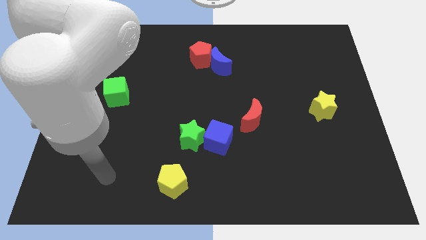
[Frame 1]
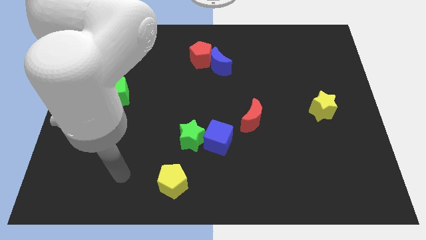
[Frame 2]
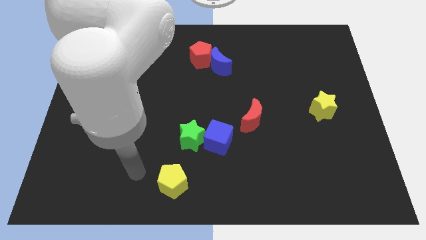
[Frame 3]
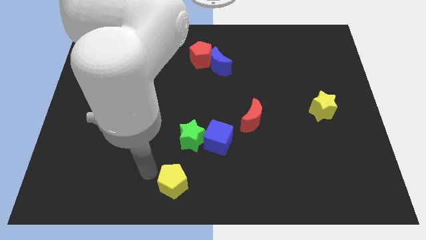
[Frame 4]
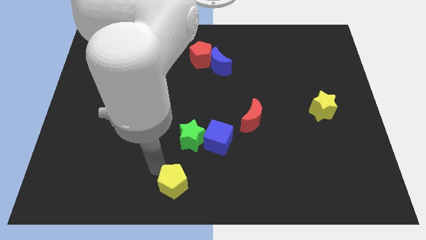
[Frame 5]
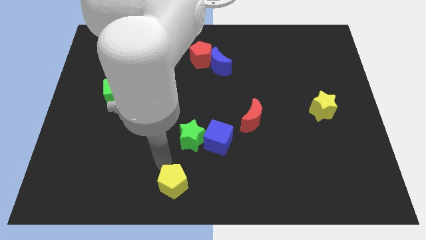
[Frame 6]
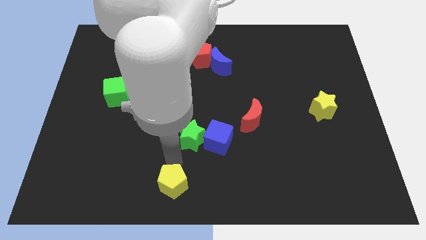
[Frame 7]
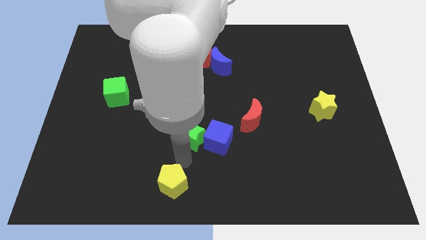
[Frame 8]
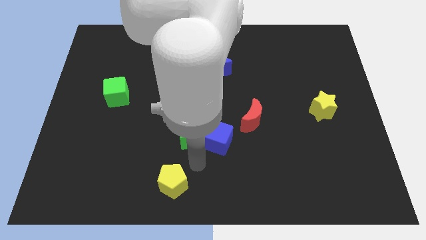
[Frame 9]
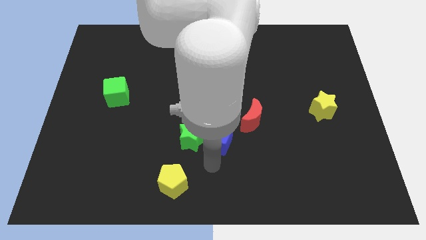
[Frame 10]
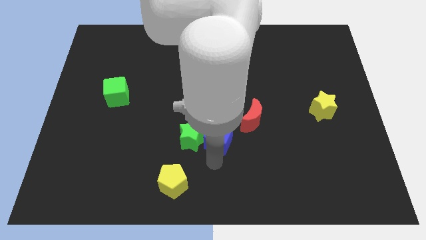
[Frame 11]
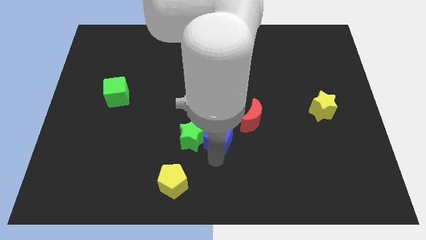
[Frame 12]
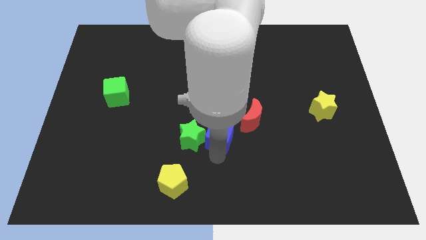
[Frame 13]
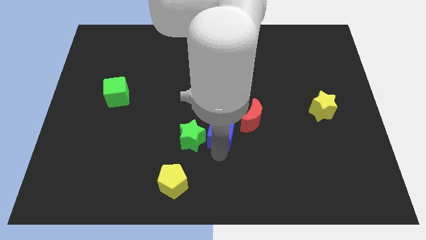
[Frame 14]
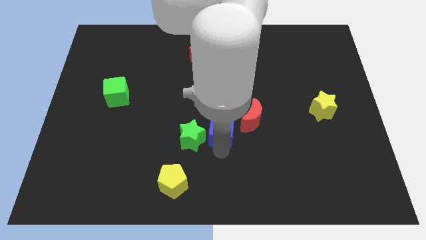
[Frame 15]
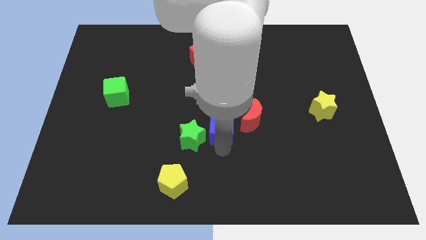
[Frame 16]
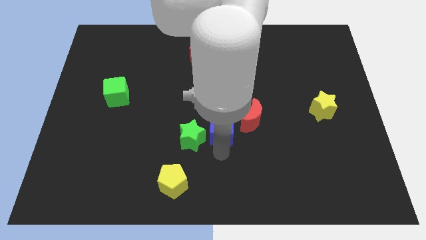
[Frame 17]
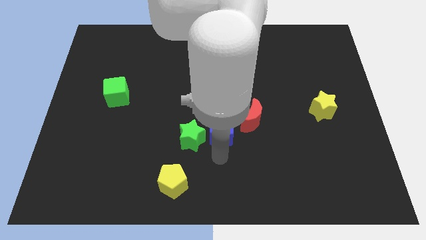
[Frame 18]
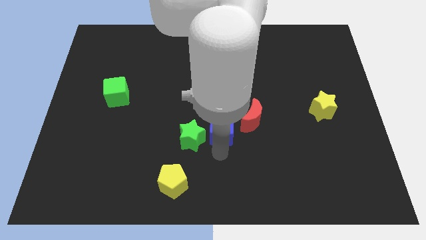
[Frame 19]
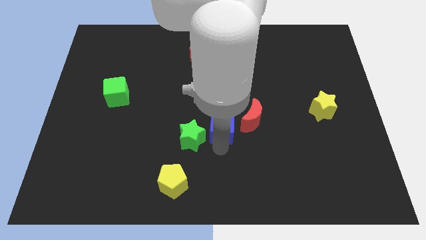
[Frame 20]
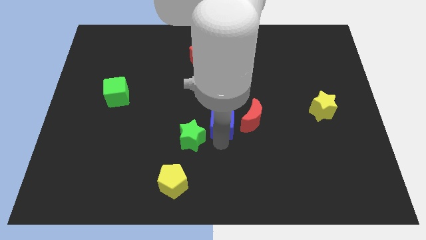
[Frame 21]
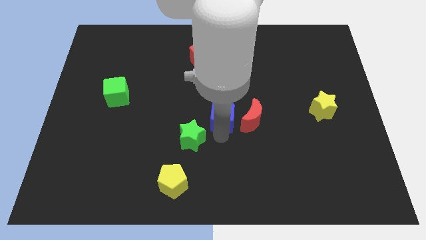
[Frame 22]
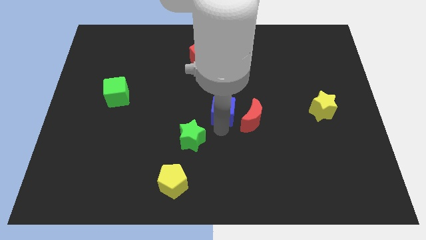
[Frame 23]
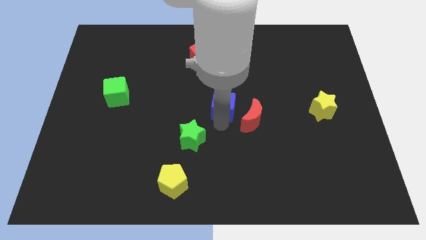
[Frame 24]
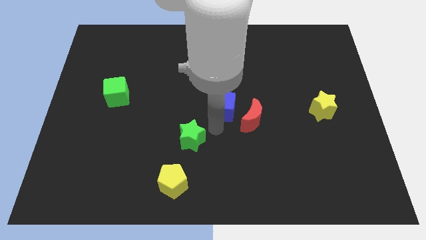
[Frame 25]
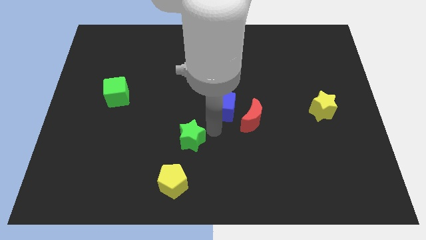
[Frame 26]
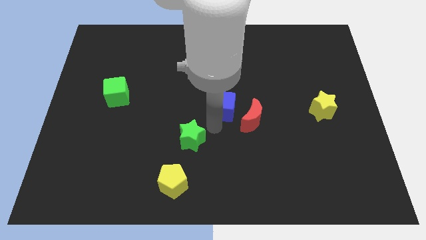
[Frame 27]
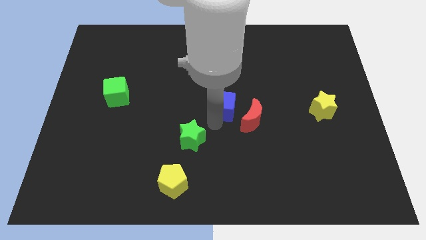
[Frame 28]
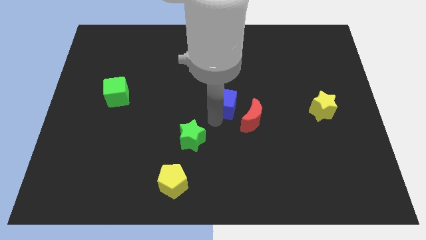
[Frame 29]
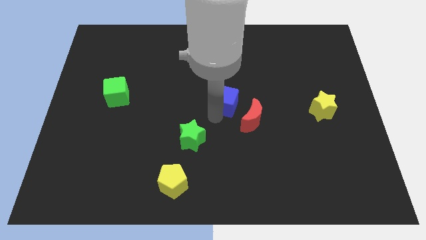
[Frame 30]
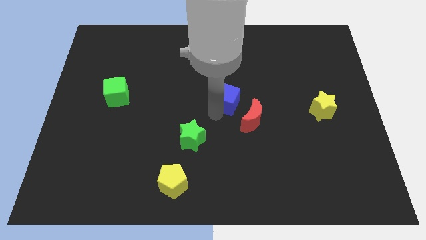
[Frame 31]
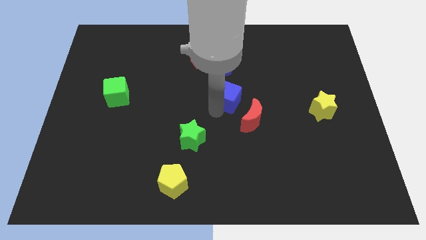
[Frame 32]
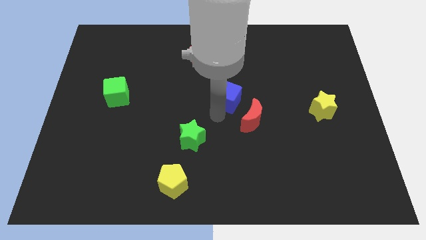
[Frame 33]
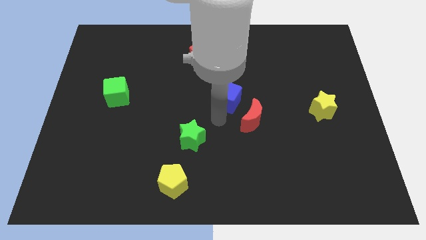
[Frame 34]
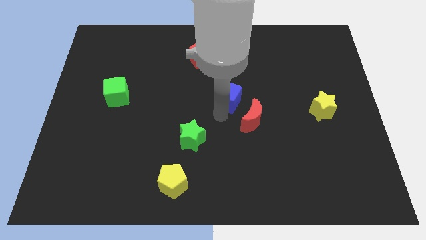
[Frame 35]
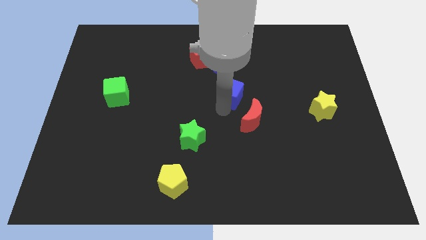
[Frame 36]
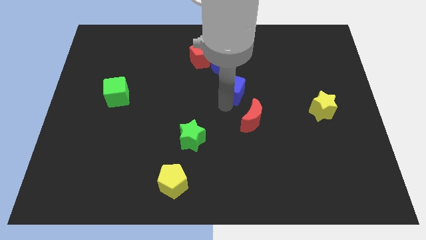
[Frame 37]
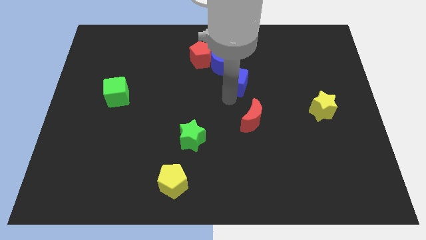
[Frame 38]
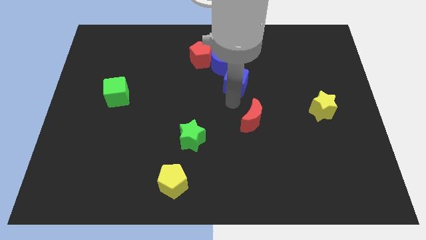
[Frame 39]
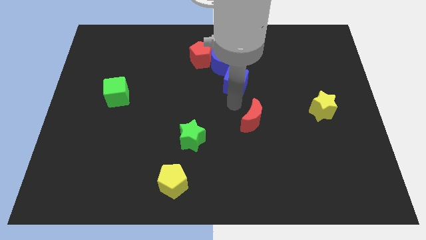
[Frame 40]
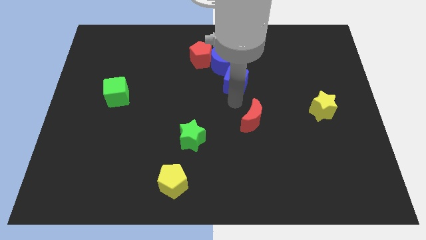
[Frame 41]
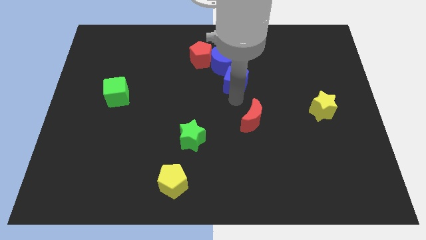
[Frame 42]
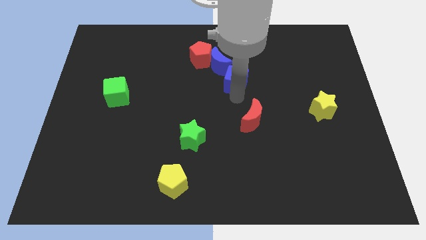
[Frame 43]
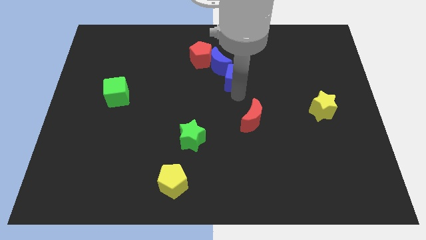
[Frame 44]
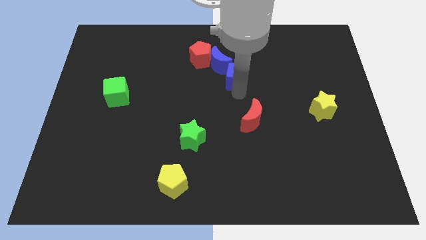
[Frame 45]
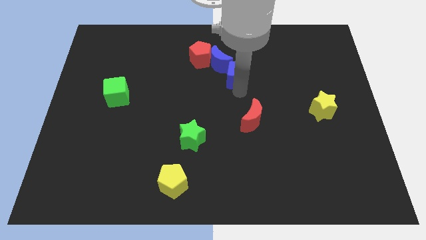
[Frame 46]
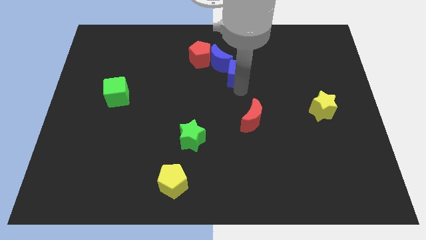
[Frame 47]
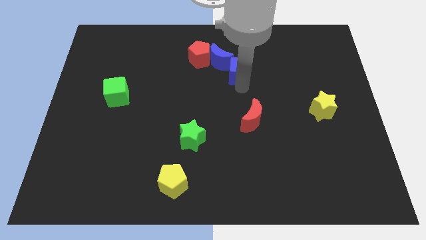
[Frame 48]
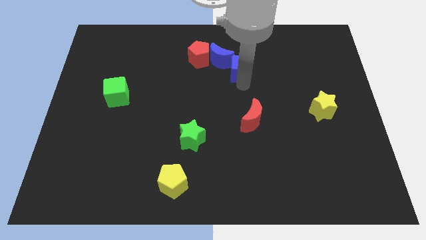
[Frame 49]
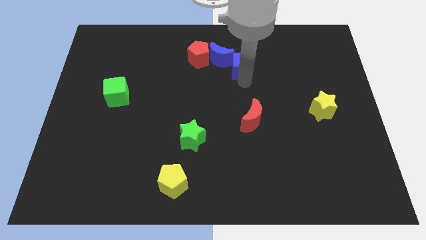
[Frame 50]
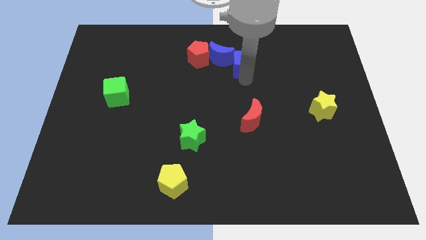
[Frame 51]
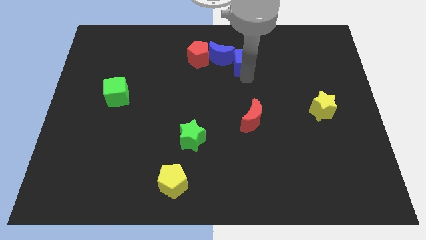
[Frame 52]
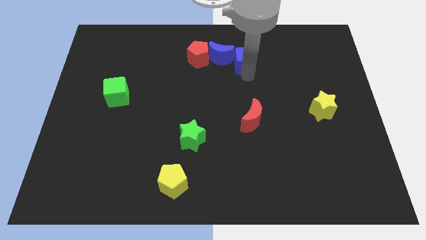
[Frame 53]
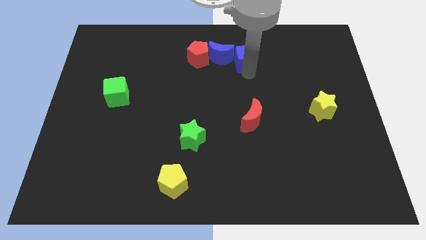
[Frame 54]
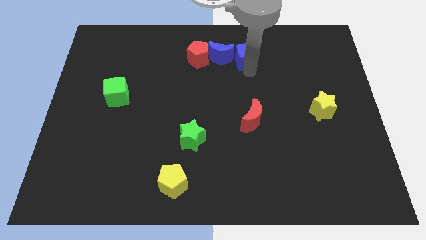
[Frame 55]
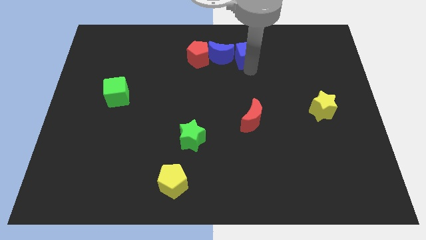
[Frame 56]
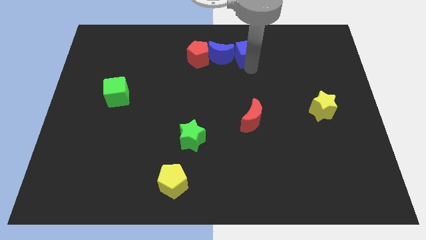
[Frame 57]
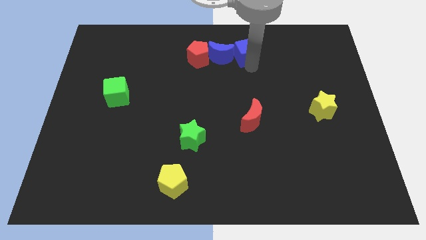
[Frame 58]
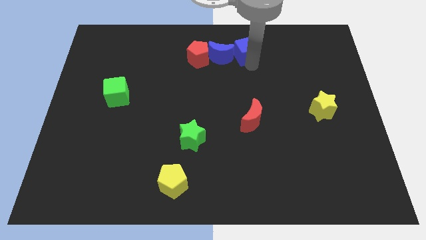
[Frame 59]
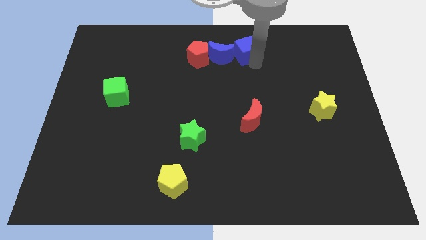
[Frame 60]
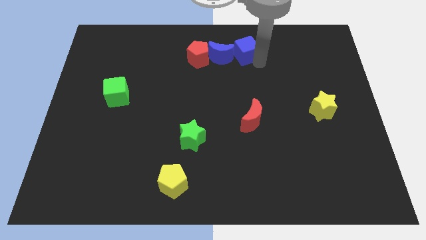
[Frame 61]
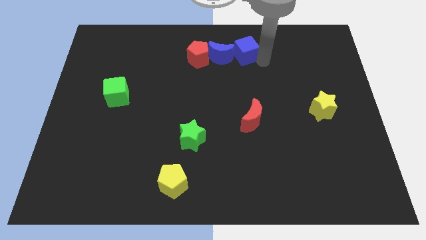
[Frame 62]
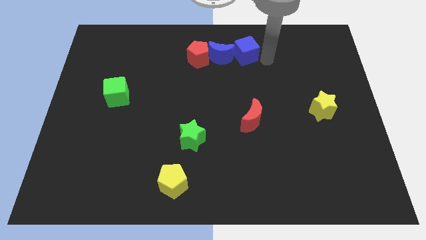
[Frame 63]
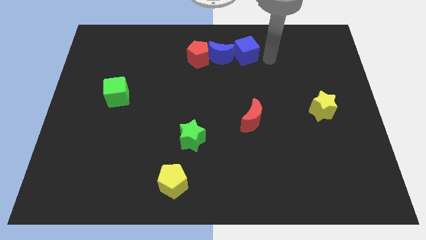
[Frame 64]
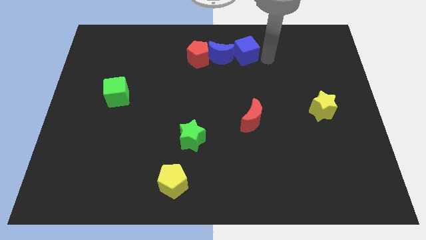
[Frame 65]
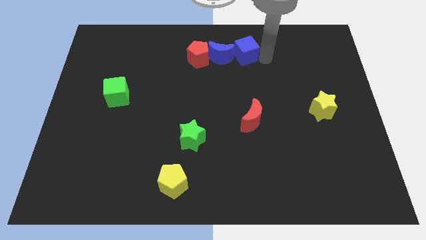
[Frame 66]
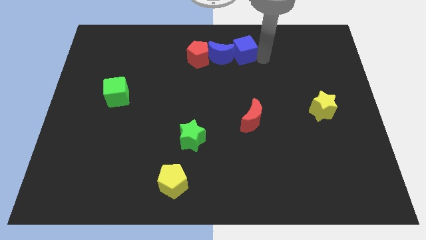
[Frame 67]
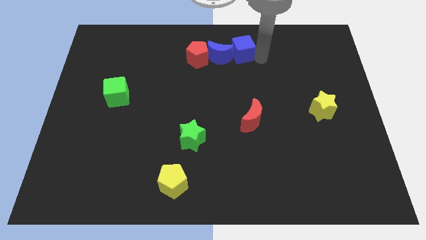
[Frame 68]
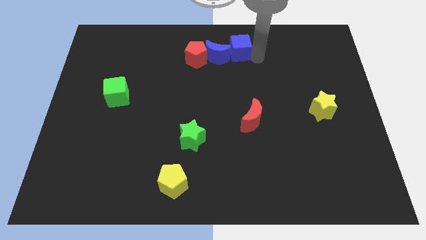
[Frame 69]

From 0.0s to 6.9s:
move the blue cube to the top
